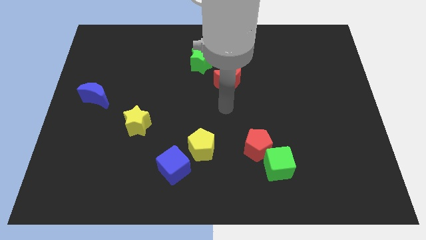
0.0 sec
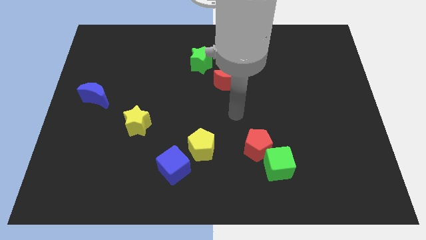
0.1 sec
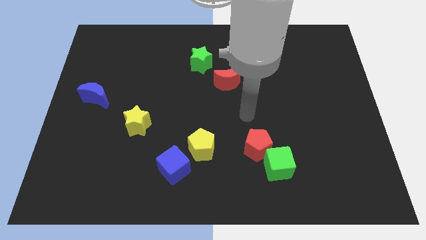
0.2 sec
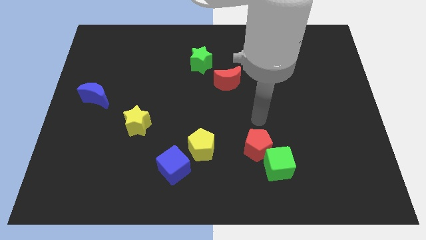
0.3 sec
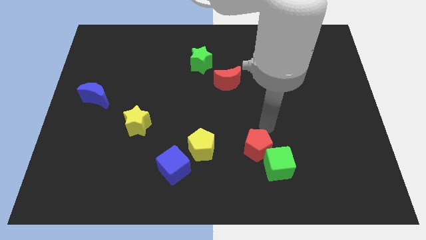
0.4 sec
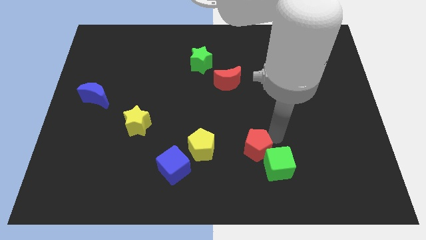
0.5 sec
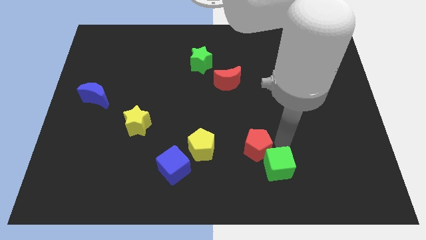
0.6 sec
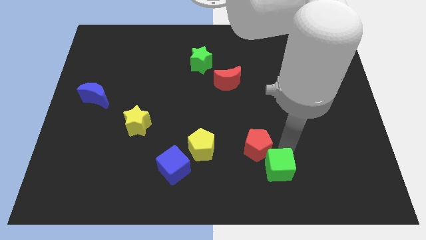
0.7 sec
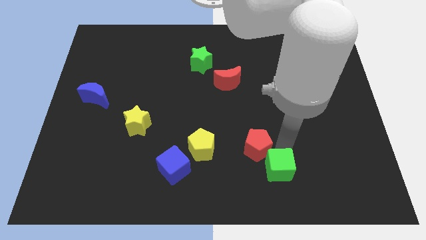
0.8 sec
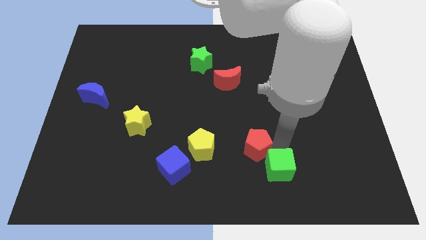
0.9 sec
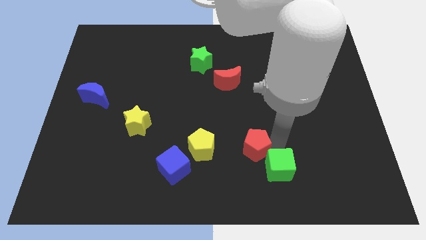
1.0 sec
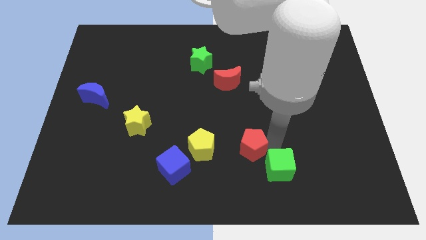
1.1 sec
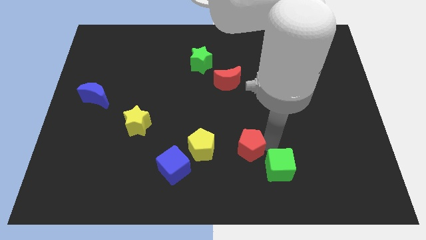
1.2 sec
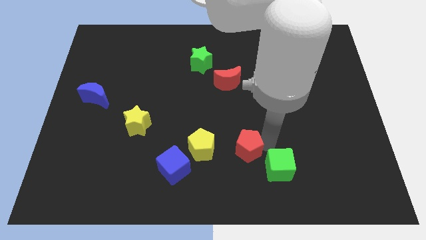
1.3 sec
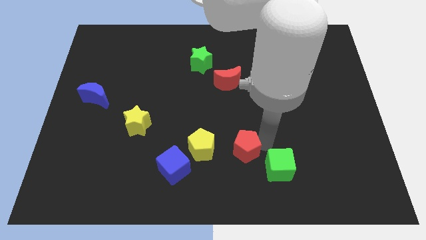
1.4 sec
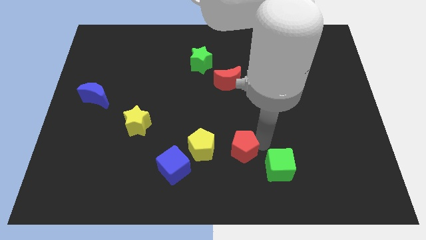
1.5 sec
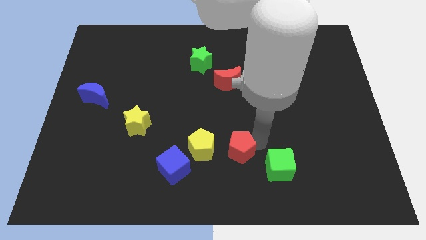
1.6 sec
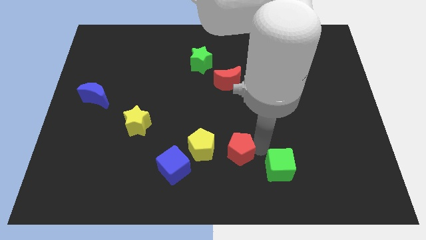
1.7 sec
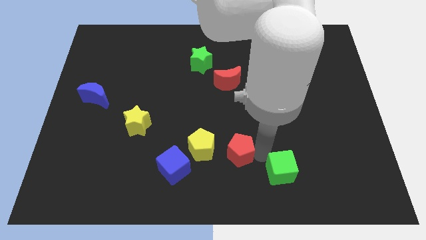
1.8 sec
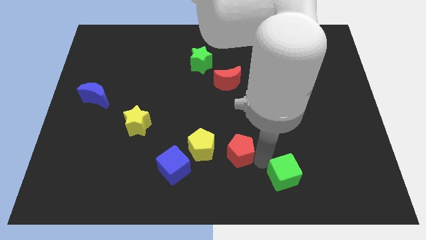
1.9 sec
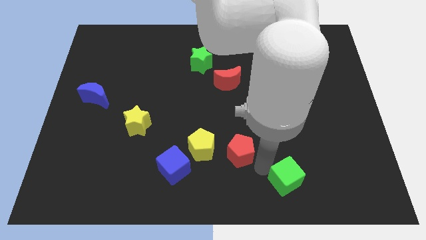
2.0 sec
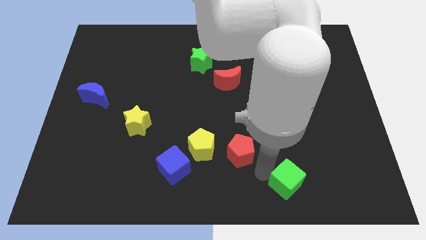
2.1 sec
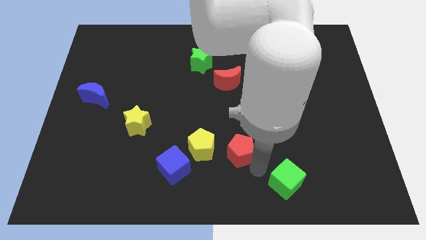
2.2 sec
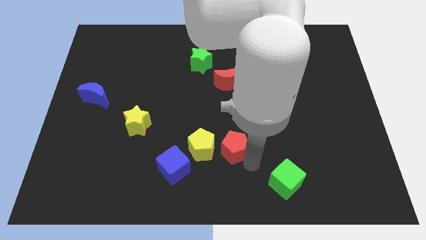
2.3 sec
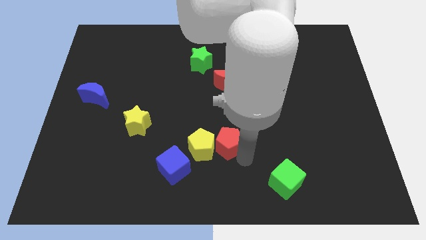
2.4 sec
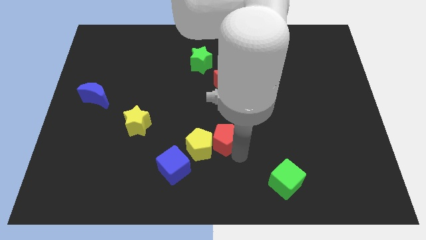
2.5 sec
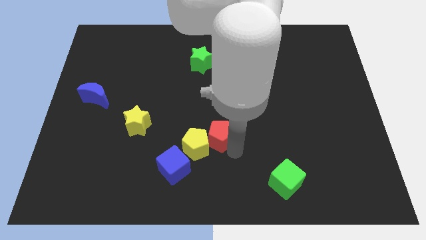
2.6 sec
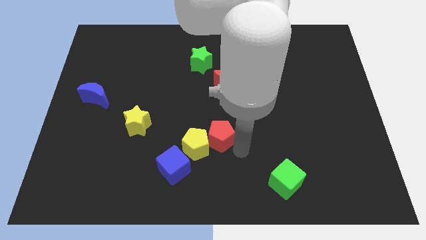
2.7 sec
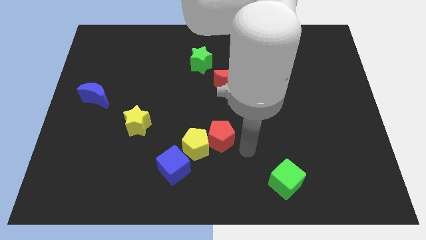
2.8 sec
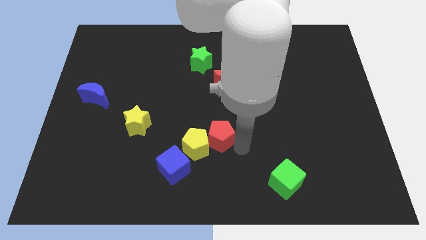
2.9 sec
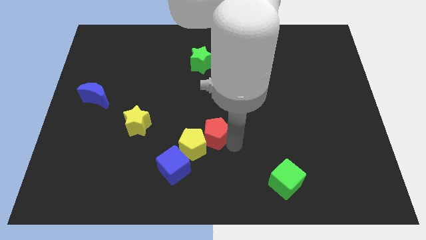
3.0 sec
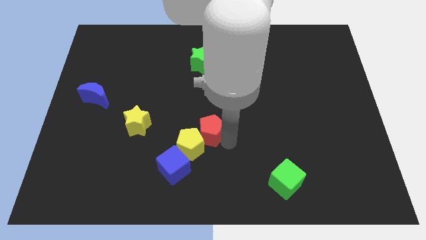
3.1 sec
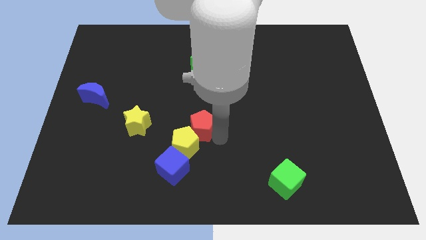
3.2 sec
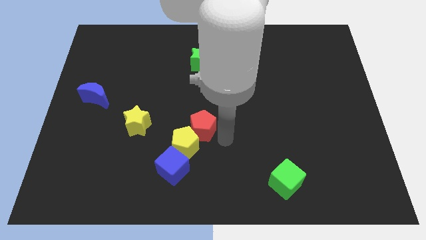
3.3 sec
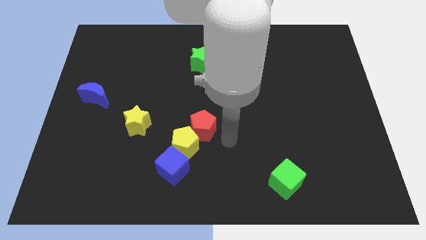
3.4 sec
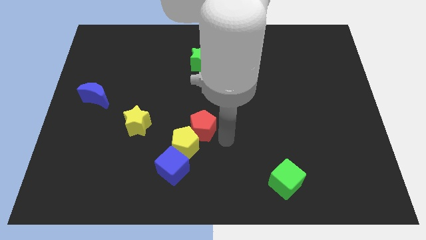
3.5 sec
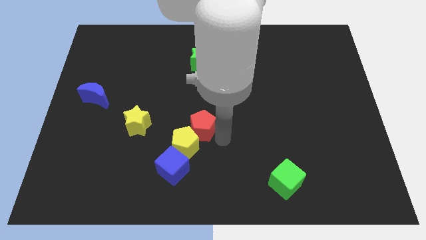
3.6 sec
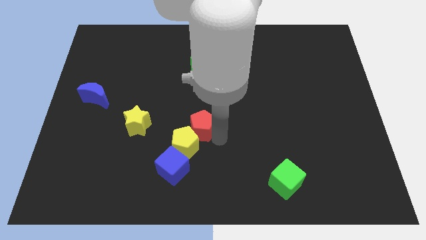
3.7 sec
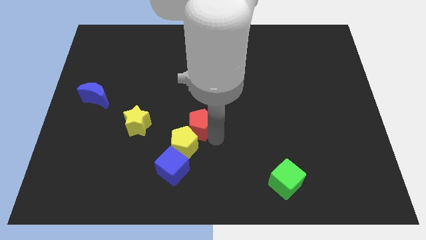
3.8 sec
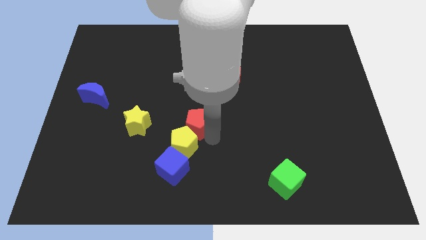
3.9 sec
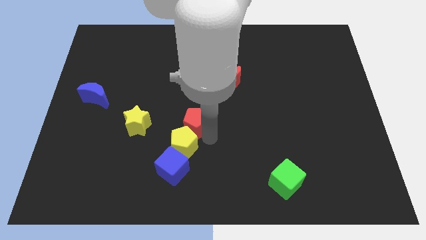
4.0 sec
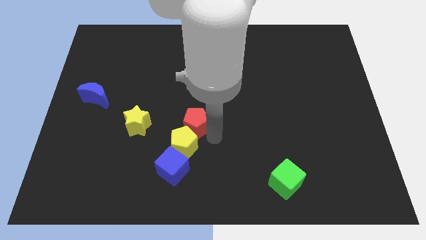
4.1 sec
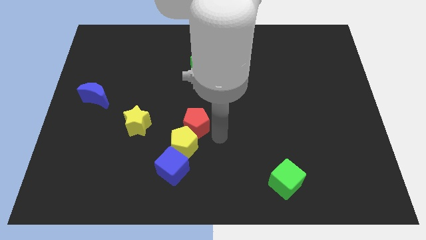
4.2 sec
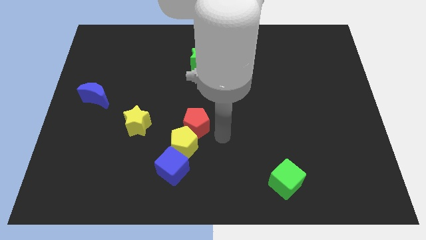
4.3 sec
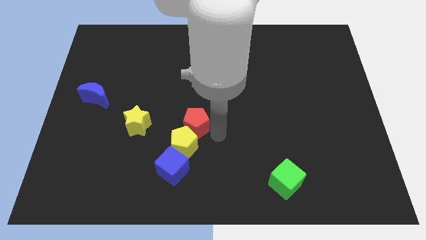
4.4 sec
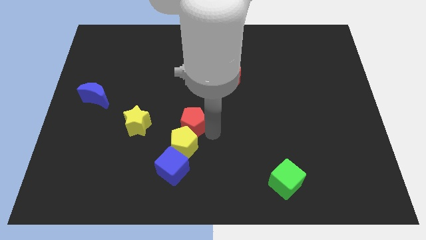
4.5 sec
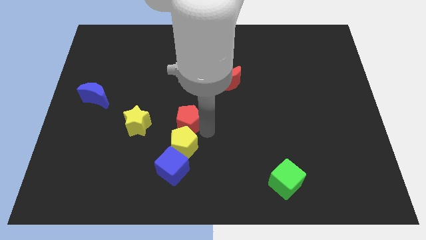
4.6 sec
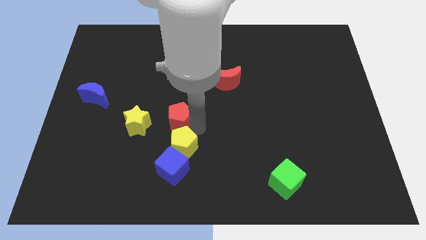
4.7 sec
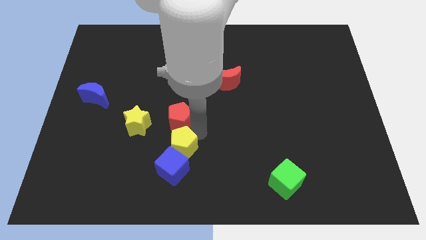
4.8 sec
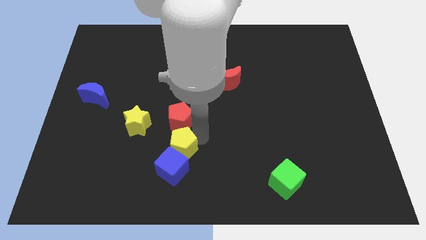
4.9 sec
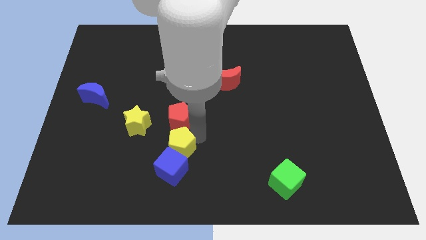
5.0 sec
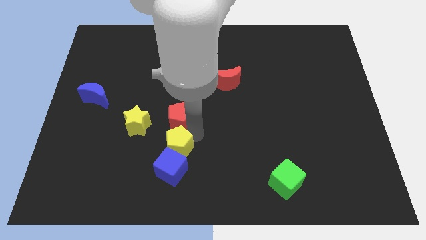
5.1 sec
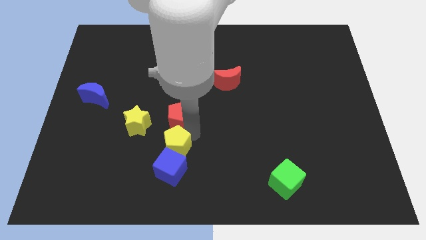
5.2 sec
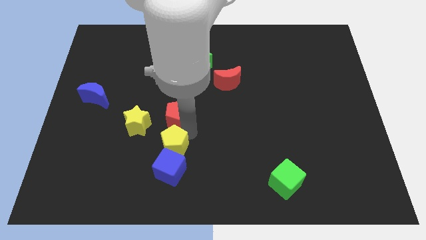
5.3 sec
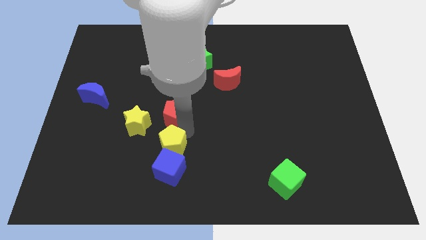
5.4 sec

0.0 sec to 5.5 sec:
put the red pentagon to the top right side of the yellow star

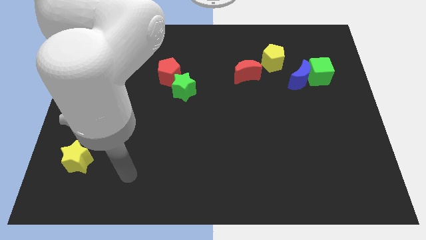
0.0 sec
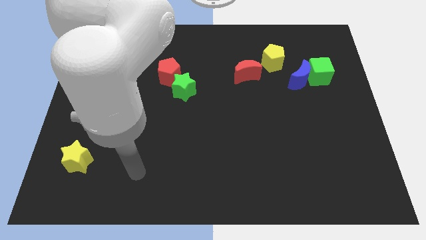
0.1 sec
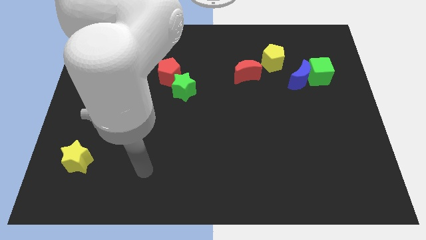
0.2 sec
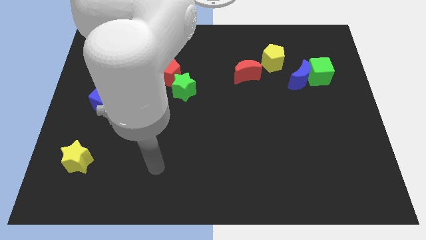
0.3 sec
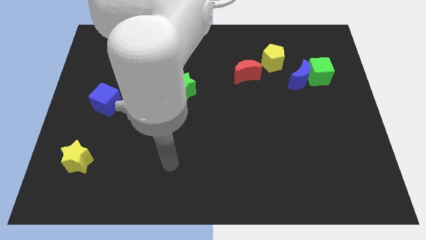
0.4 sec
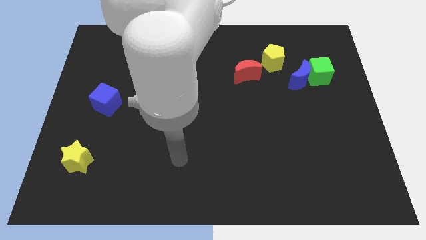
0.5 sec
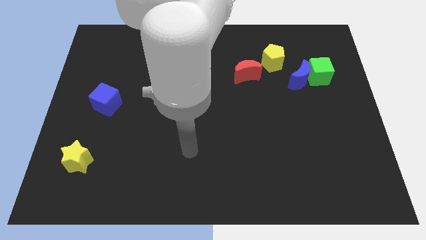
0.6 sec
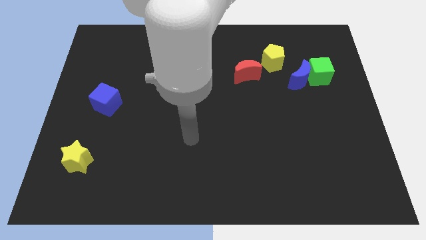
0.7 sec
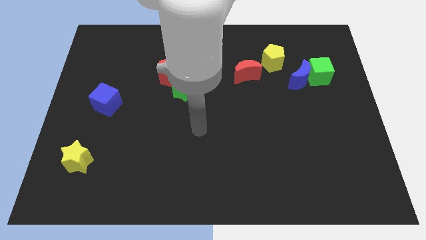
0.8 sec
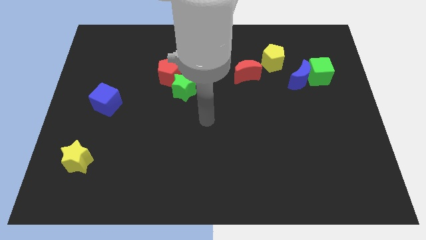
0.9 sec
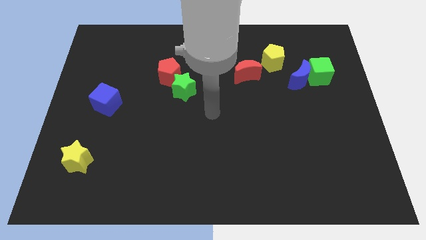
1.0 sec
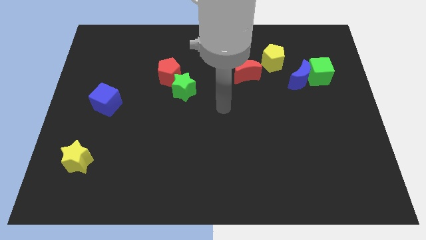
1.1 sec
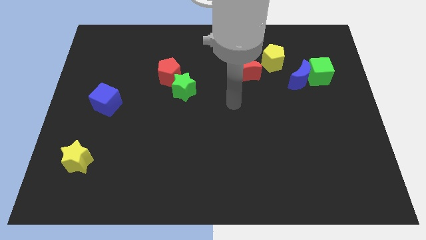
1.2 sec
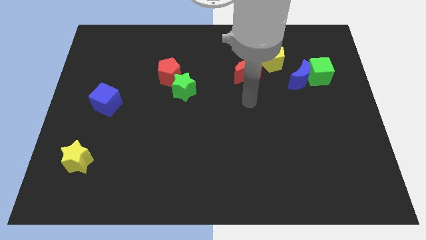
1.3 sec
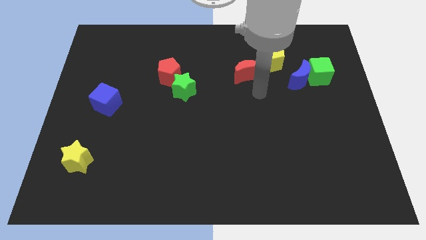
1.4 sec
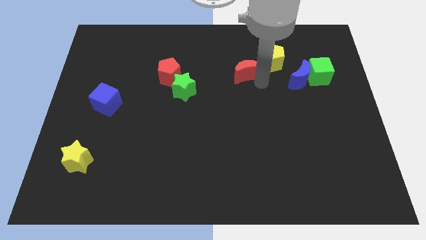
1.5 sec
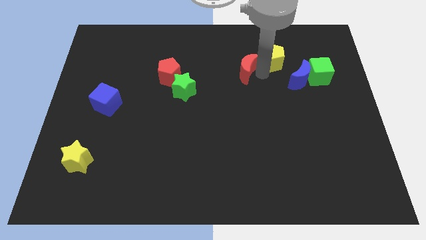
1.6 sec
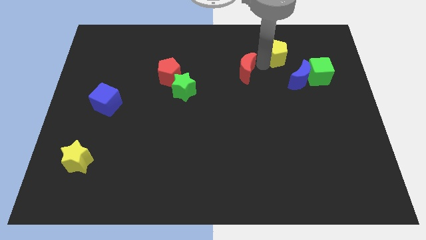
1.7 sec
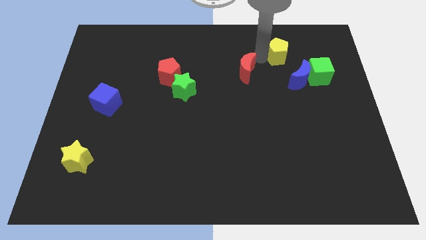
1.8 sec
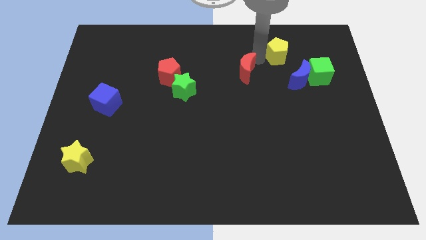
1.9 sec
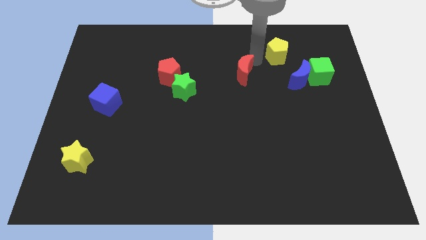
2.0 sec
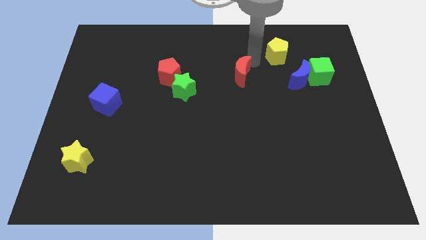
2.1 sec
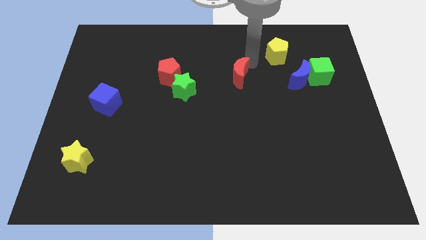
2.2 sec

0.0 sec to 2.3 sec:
put the red moon to the right side of the green star

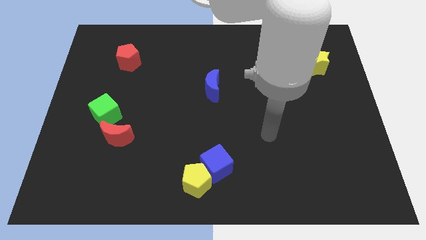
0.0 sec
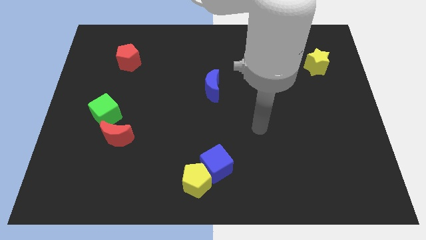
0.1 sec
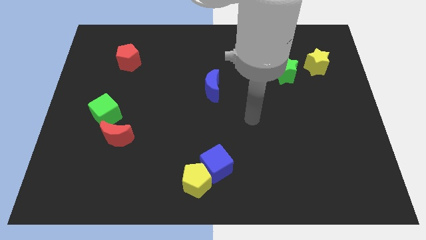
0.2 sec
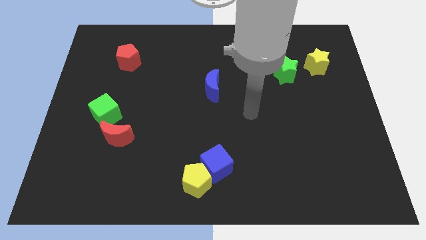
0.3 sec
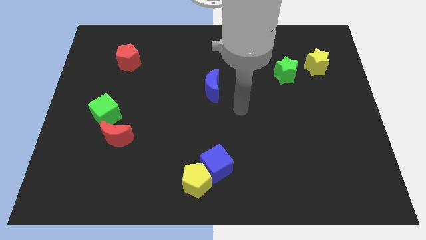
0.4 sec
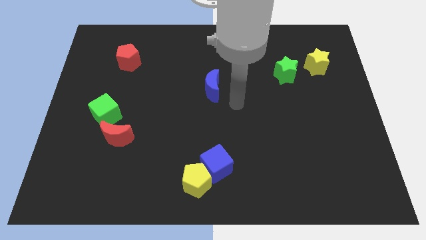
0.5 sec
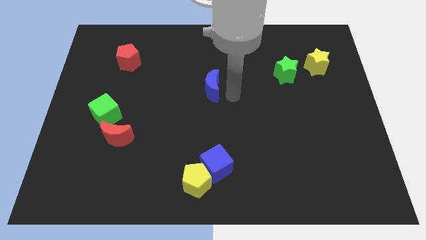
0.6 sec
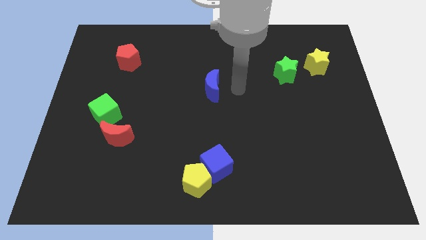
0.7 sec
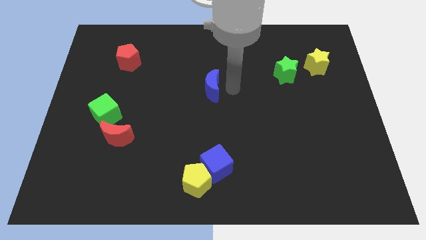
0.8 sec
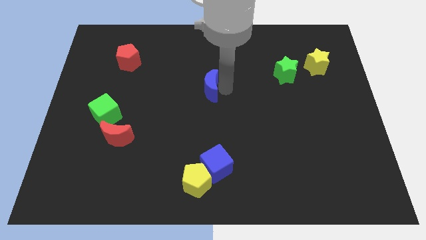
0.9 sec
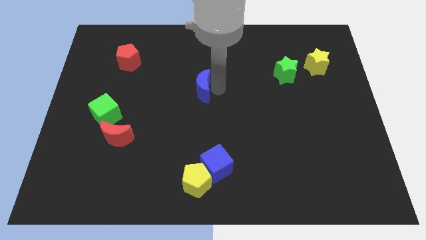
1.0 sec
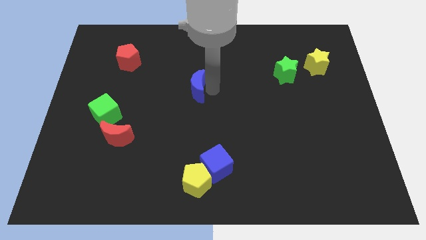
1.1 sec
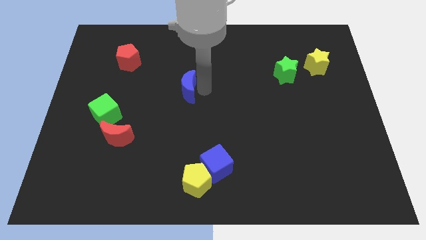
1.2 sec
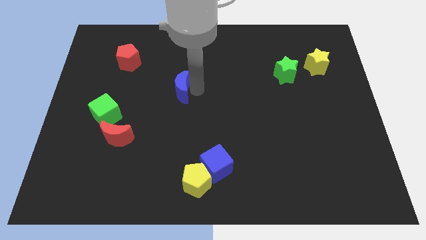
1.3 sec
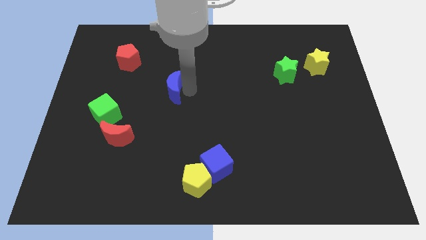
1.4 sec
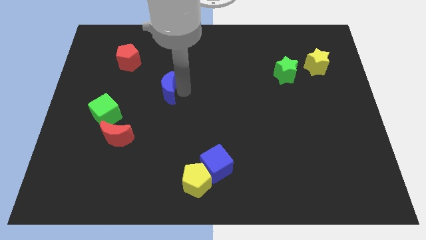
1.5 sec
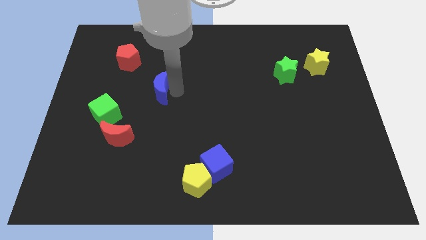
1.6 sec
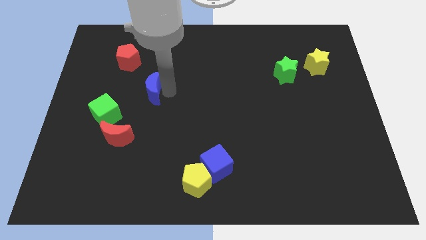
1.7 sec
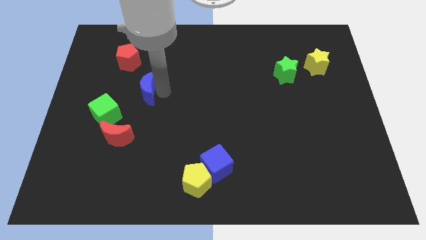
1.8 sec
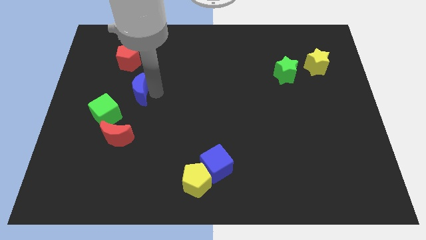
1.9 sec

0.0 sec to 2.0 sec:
slide the blue moon to the bottom side of the red pentagon
